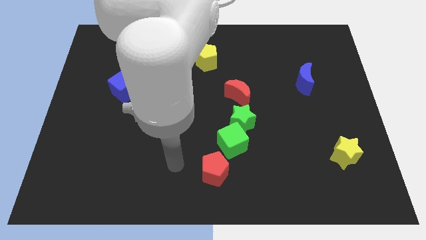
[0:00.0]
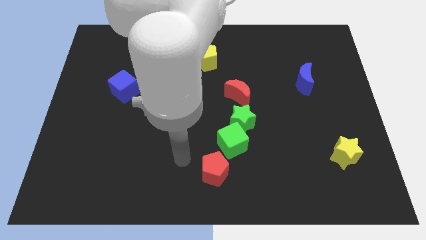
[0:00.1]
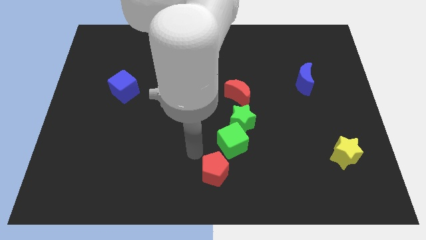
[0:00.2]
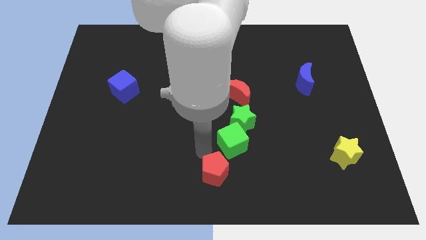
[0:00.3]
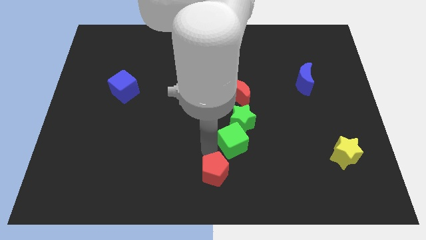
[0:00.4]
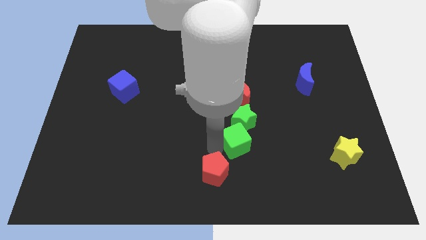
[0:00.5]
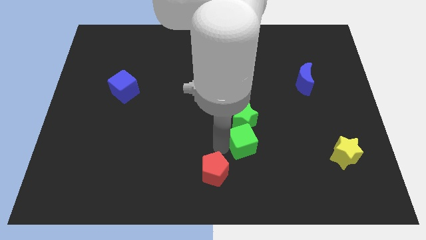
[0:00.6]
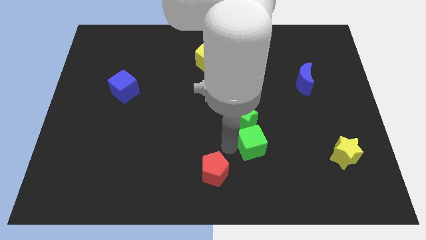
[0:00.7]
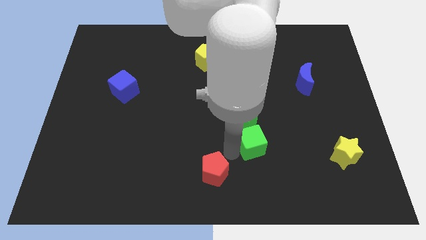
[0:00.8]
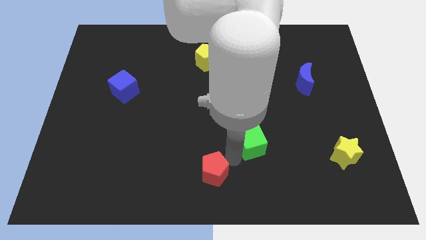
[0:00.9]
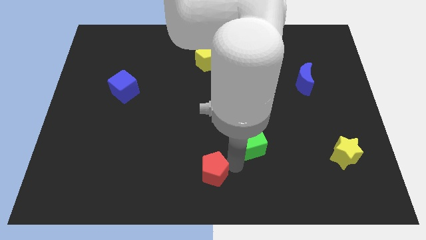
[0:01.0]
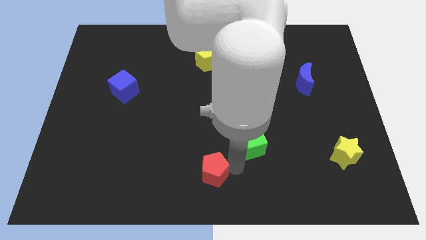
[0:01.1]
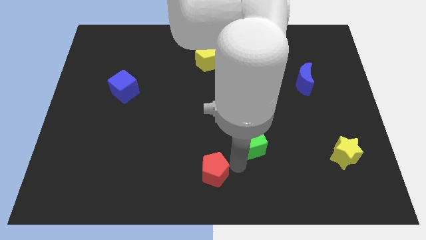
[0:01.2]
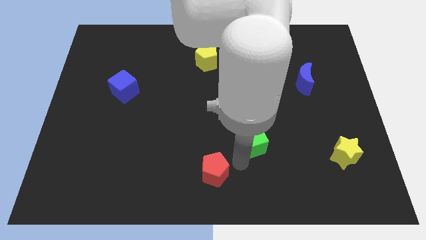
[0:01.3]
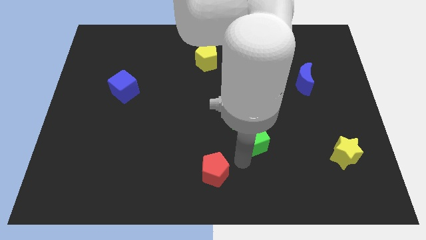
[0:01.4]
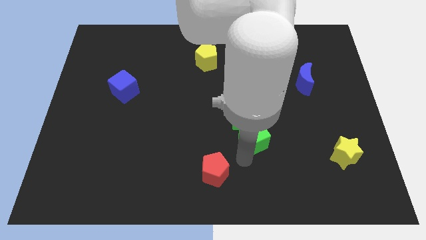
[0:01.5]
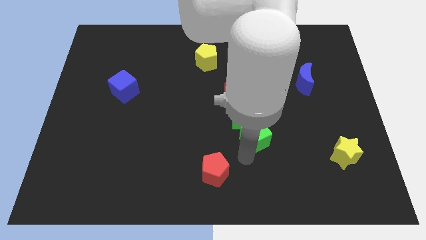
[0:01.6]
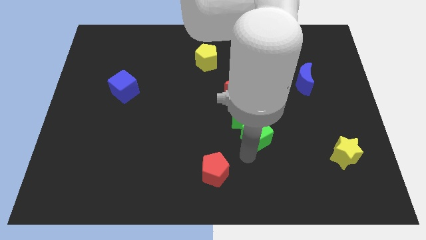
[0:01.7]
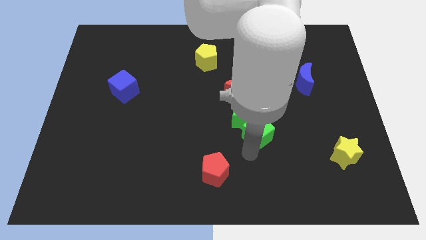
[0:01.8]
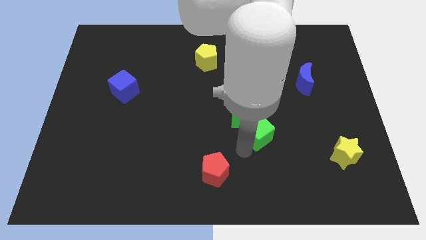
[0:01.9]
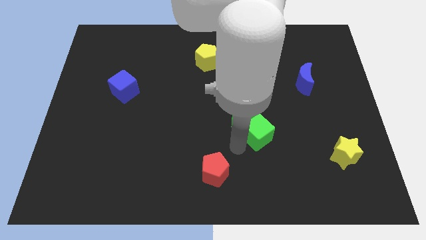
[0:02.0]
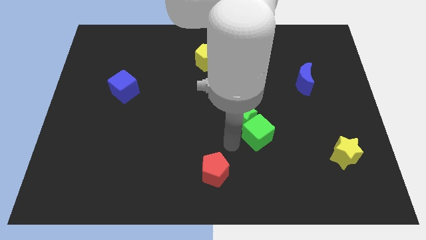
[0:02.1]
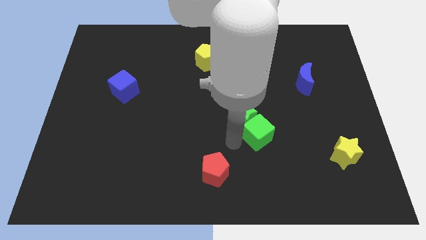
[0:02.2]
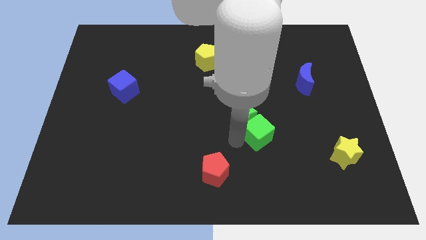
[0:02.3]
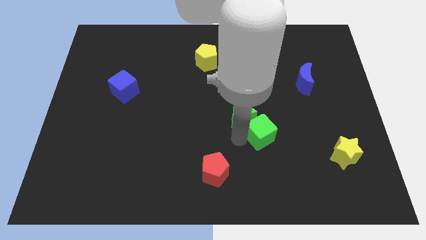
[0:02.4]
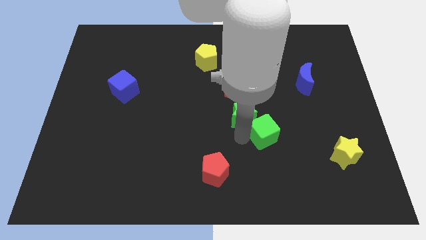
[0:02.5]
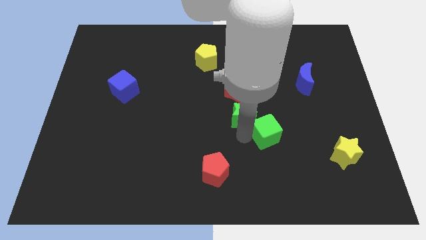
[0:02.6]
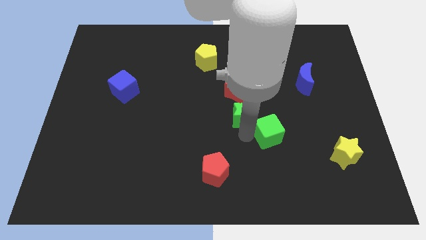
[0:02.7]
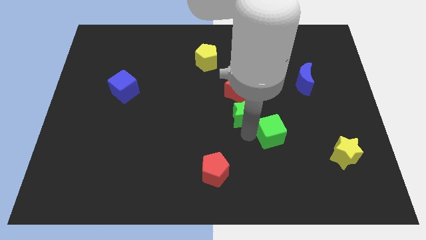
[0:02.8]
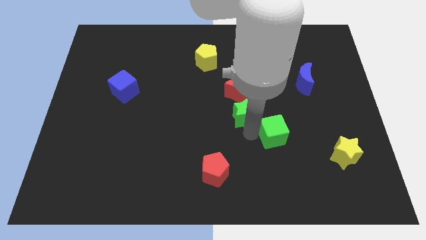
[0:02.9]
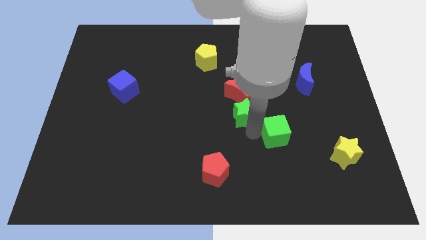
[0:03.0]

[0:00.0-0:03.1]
pull the green cube apart from the green star and red pentagon

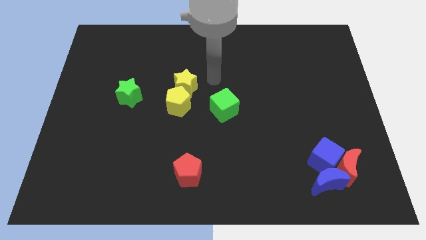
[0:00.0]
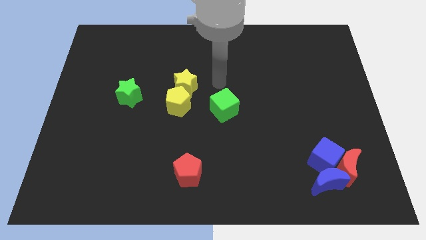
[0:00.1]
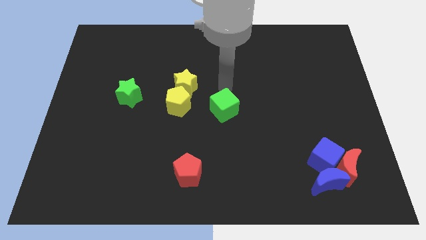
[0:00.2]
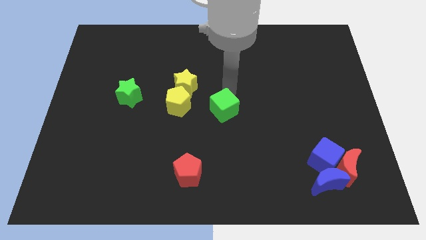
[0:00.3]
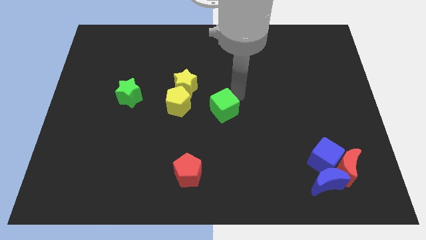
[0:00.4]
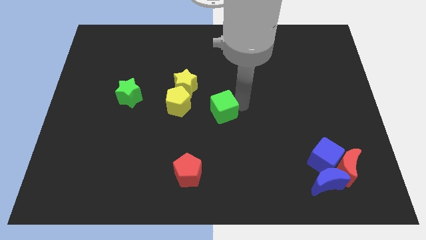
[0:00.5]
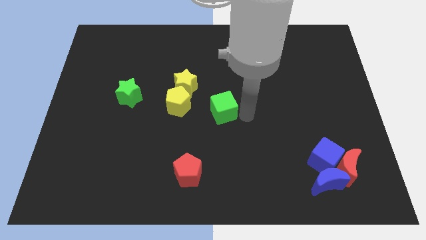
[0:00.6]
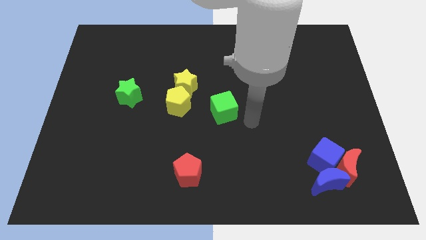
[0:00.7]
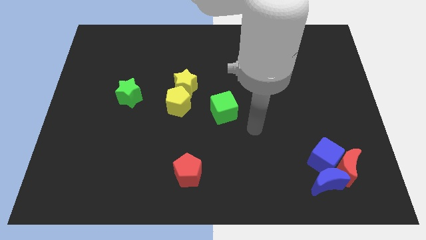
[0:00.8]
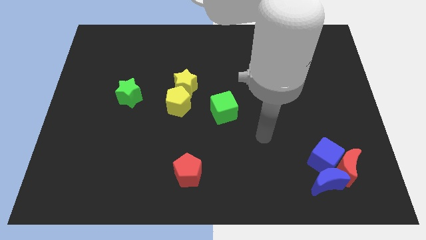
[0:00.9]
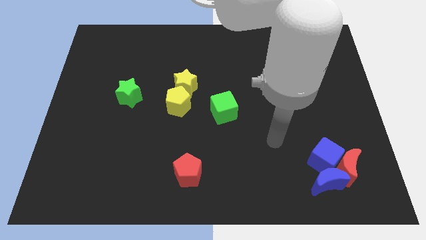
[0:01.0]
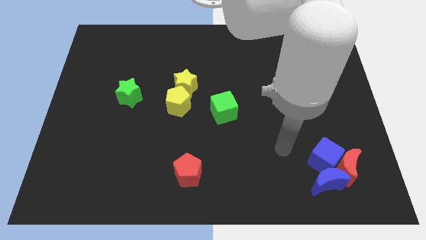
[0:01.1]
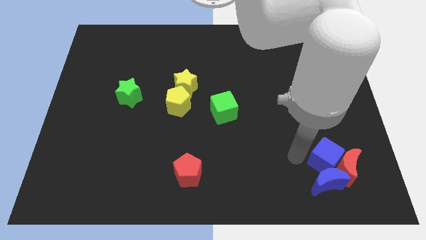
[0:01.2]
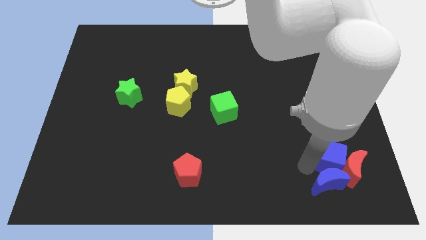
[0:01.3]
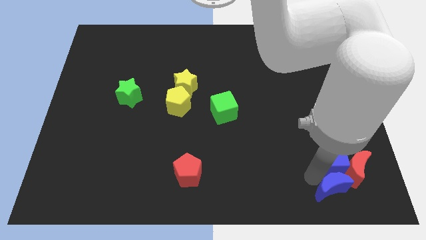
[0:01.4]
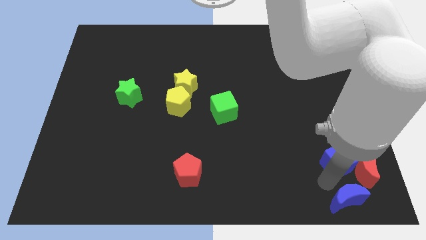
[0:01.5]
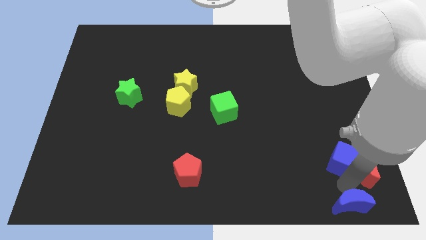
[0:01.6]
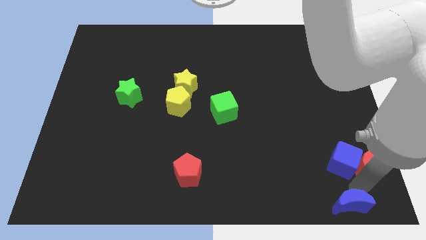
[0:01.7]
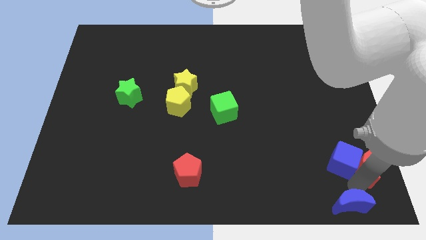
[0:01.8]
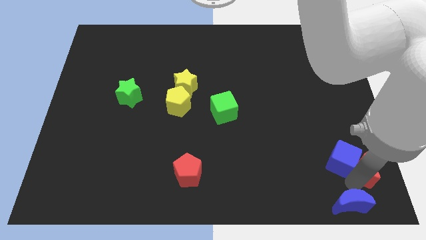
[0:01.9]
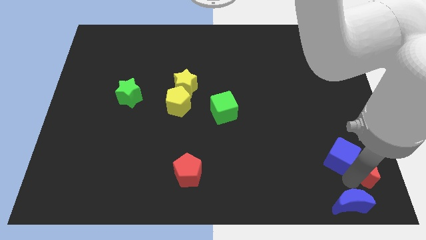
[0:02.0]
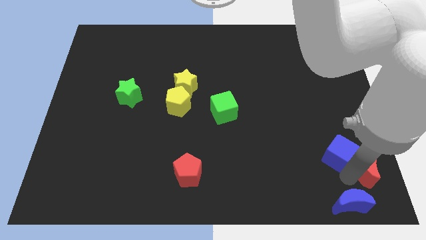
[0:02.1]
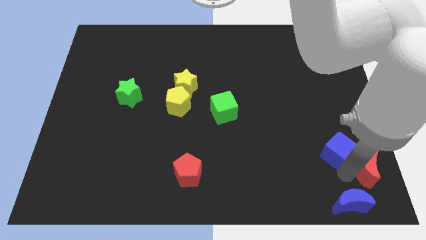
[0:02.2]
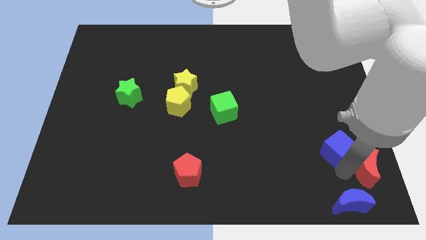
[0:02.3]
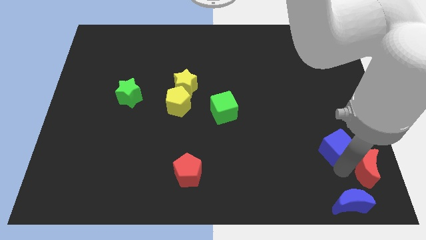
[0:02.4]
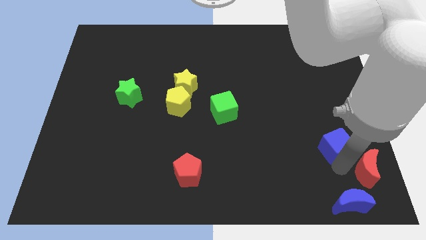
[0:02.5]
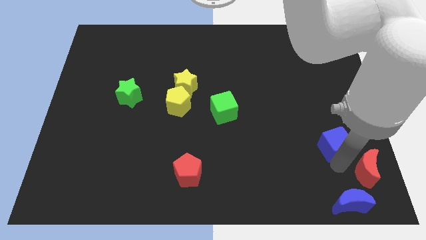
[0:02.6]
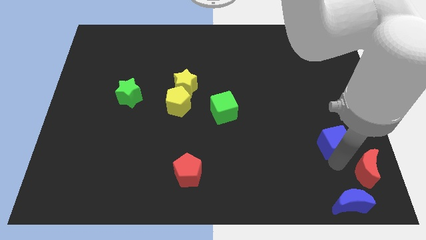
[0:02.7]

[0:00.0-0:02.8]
pull the blue cube apart from the red moon and blue moon

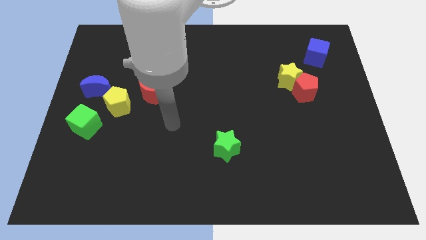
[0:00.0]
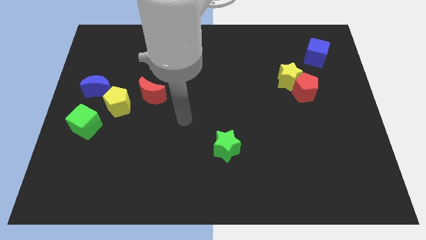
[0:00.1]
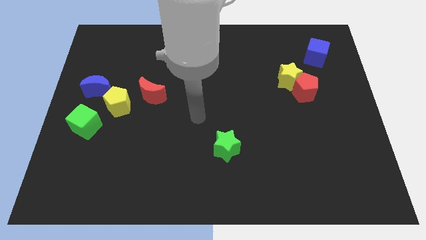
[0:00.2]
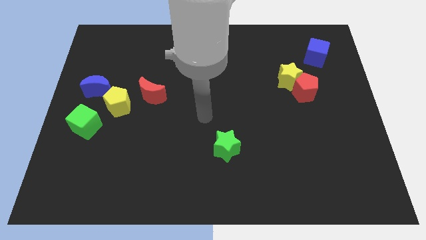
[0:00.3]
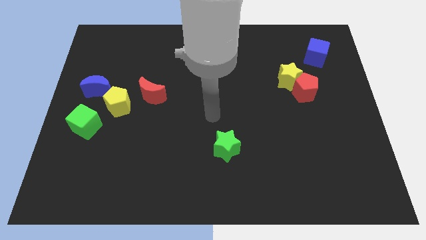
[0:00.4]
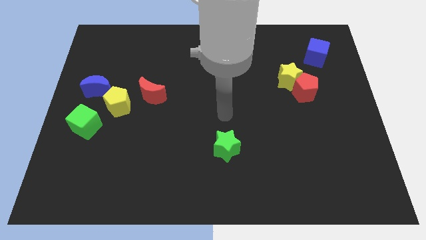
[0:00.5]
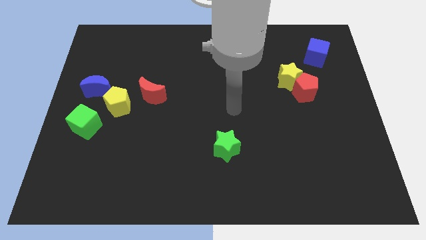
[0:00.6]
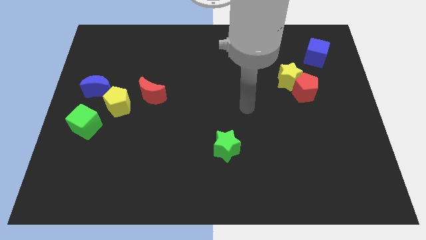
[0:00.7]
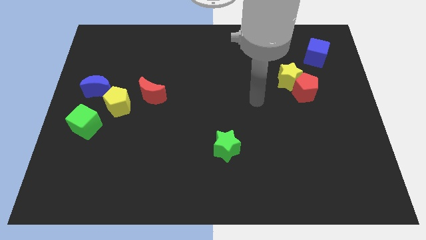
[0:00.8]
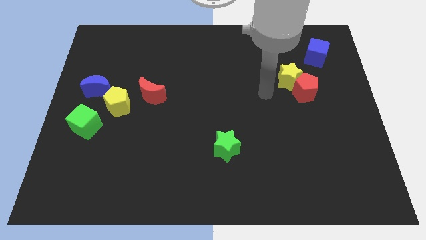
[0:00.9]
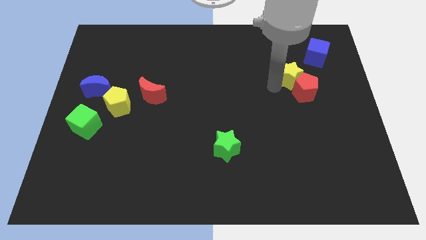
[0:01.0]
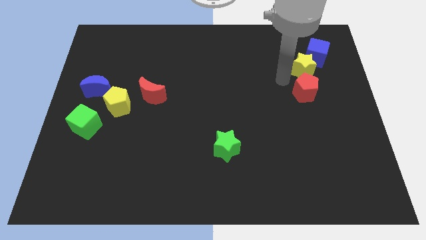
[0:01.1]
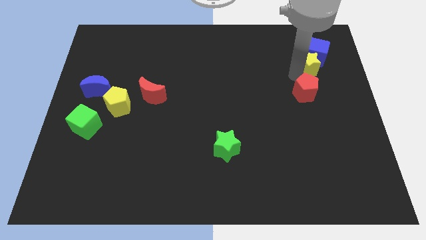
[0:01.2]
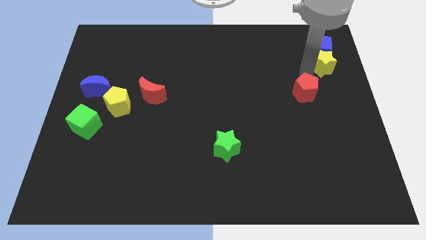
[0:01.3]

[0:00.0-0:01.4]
separate the red pentagon from the yellow star

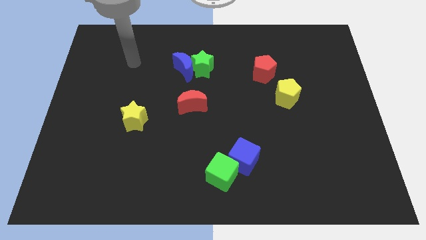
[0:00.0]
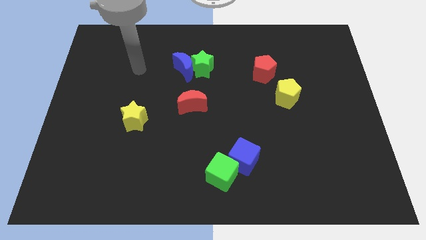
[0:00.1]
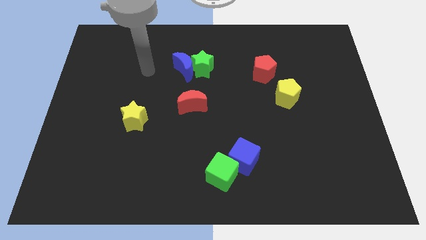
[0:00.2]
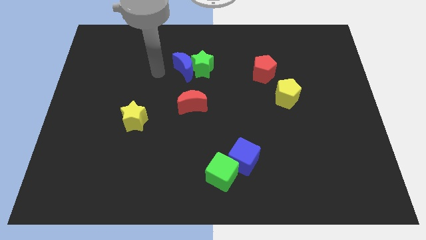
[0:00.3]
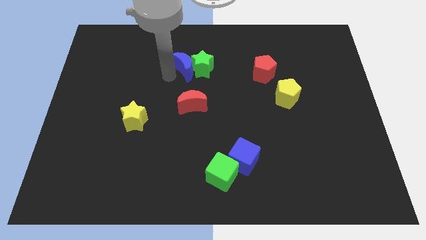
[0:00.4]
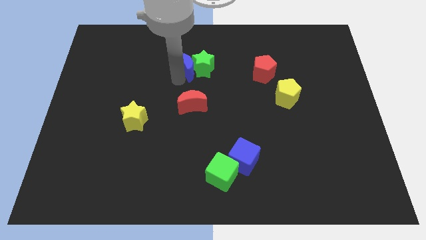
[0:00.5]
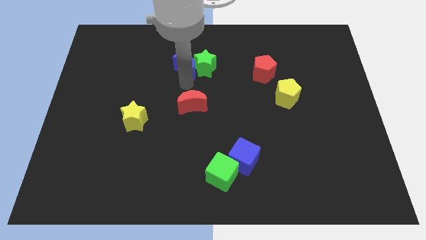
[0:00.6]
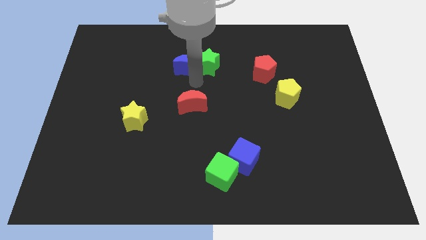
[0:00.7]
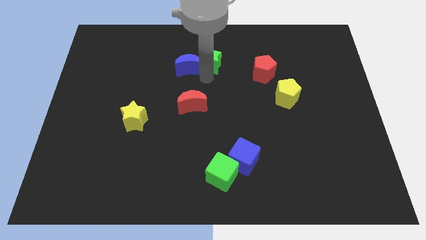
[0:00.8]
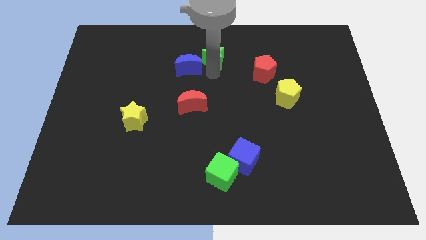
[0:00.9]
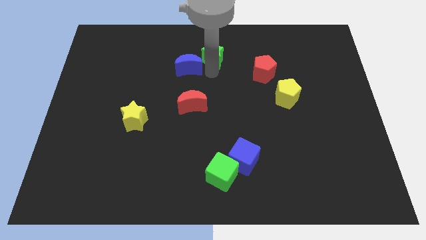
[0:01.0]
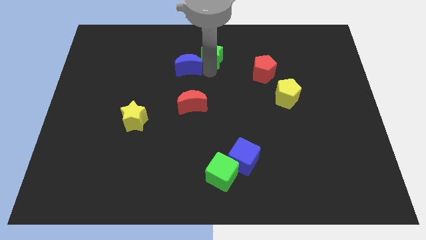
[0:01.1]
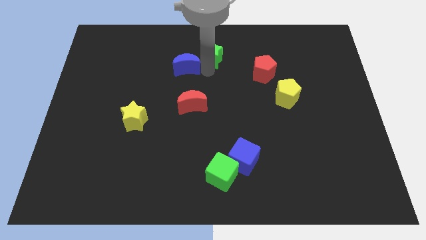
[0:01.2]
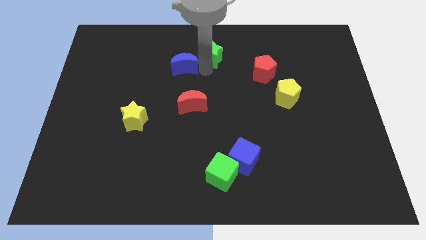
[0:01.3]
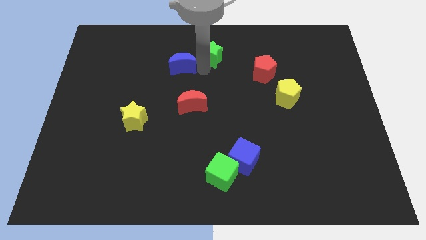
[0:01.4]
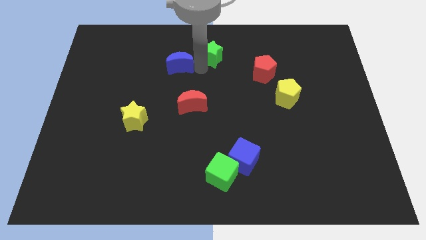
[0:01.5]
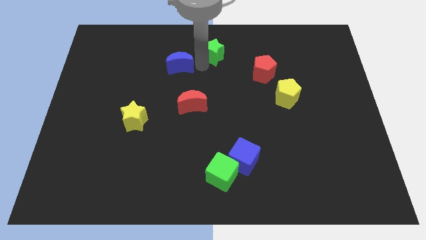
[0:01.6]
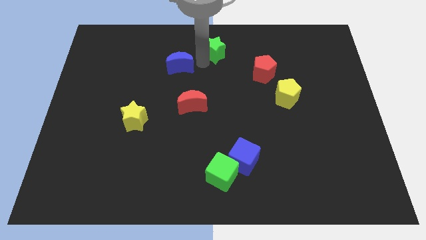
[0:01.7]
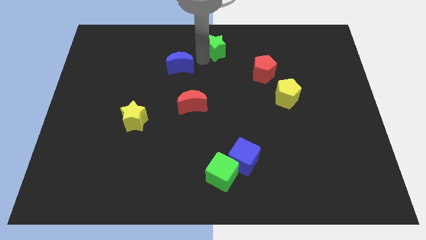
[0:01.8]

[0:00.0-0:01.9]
separate the blue moon from the green star

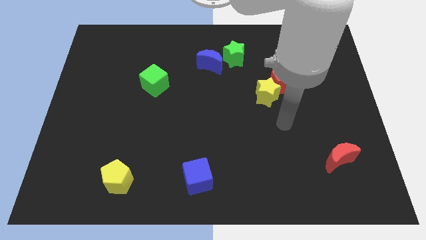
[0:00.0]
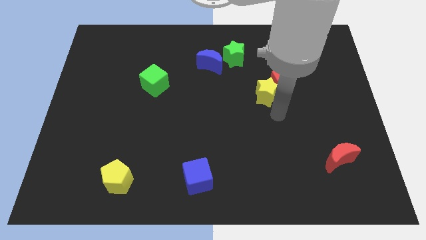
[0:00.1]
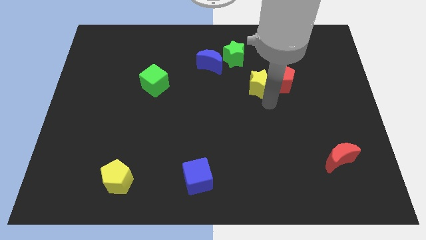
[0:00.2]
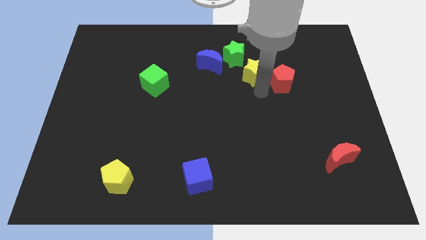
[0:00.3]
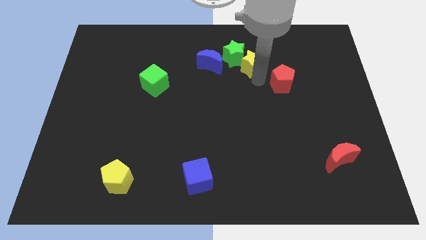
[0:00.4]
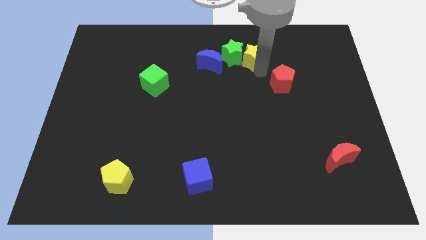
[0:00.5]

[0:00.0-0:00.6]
pull the red pentagon apart from the yellow star
